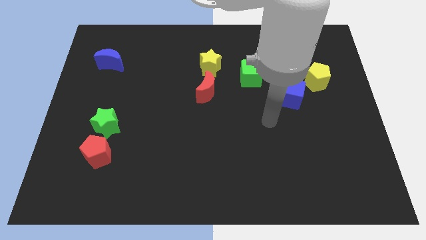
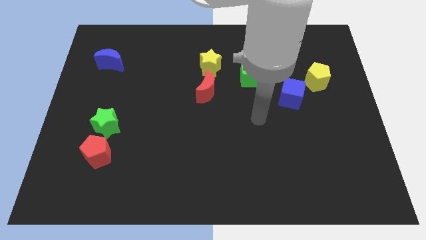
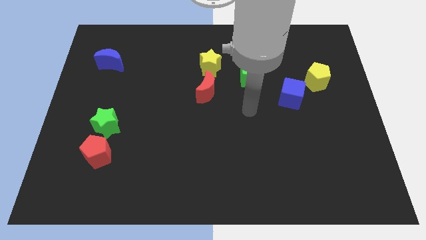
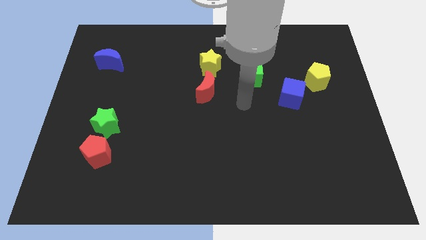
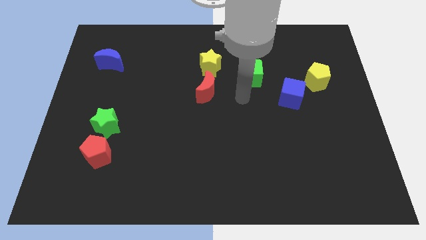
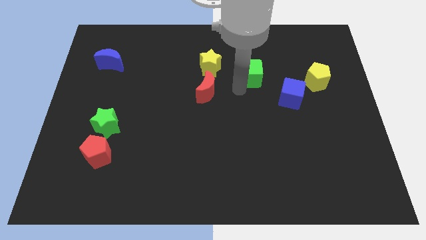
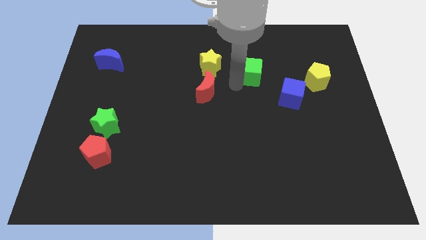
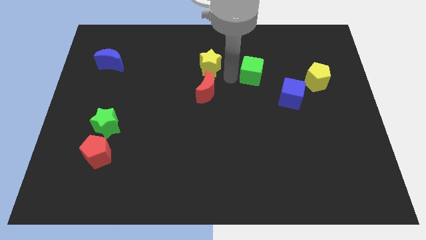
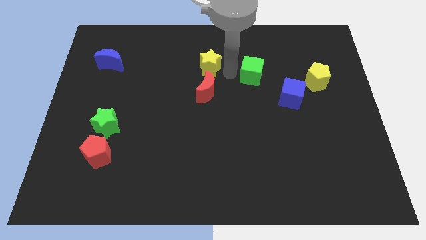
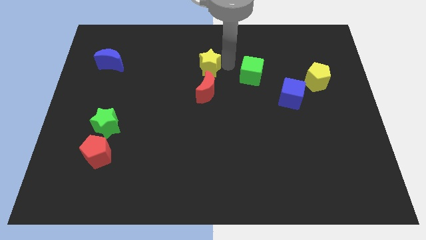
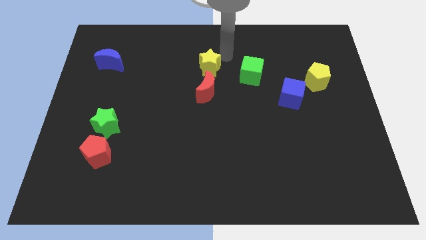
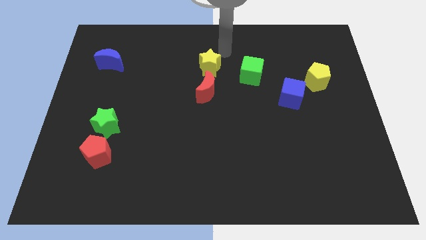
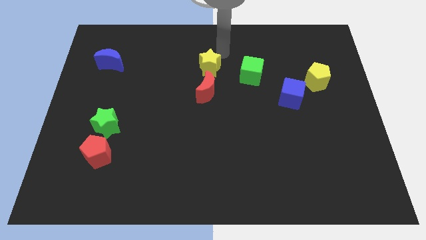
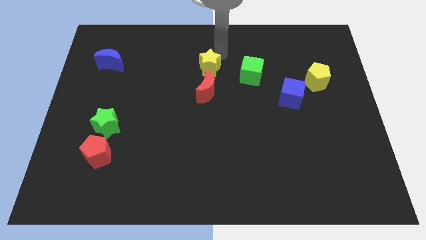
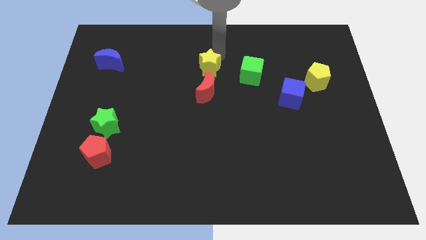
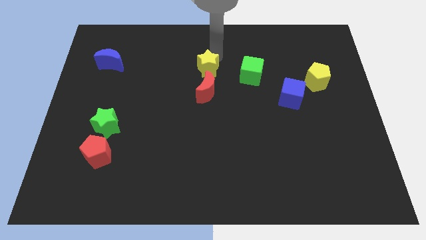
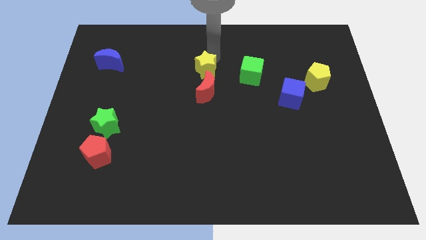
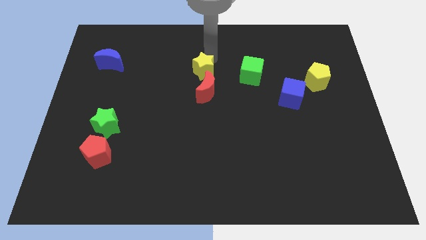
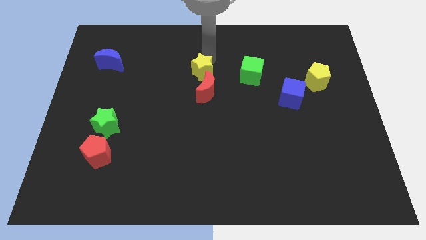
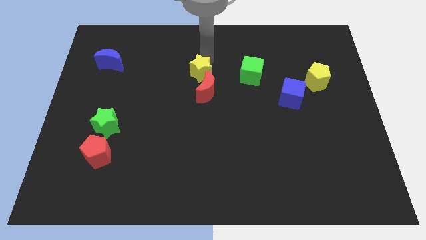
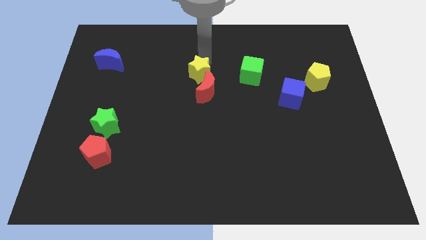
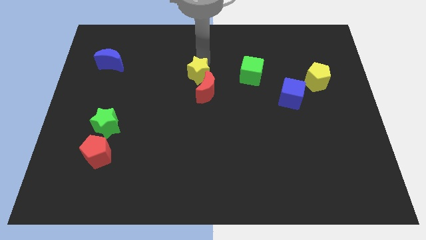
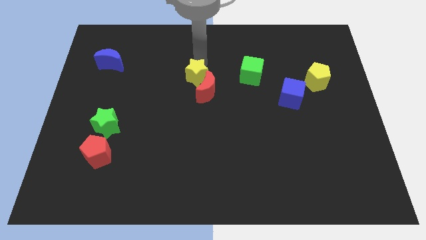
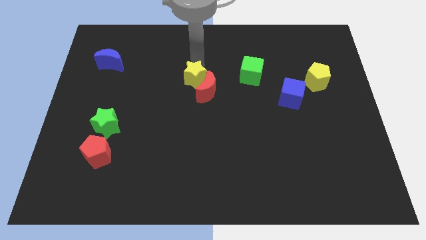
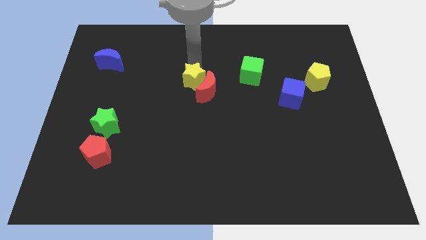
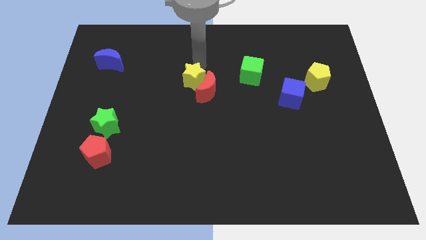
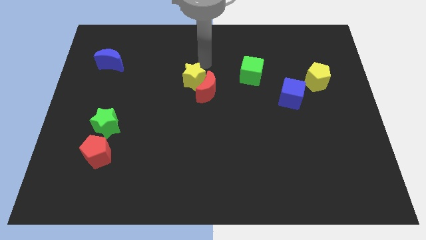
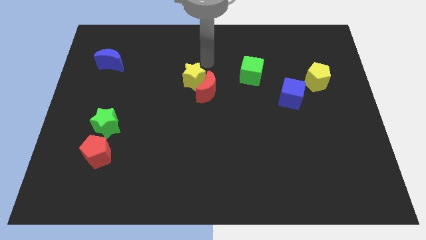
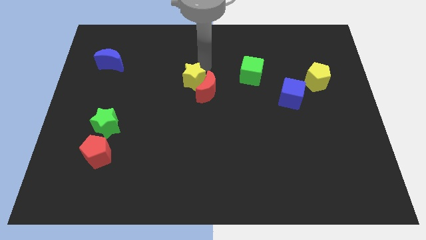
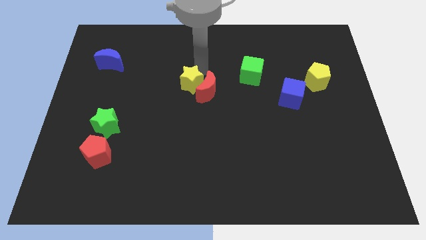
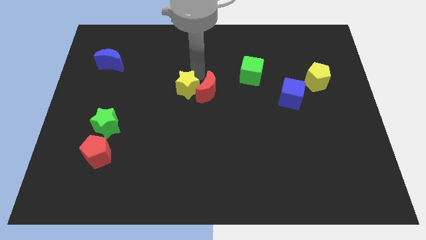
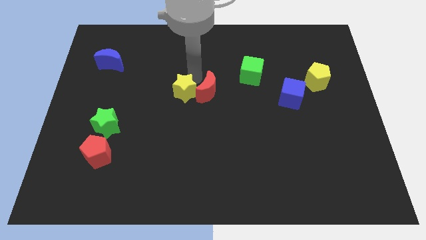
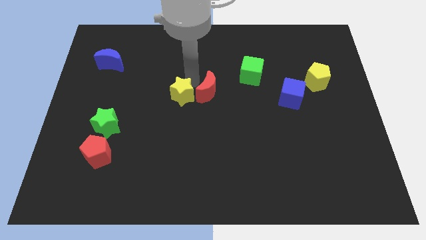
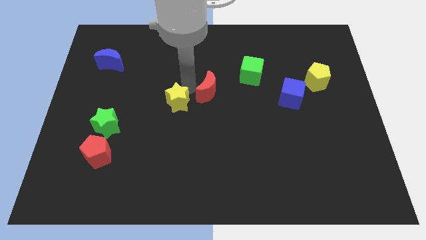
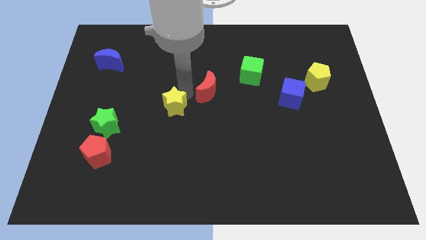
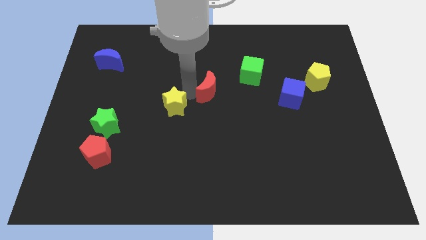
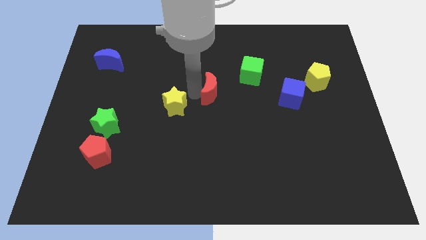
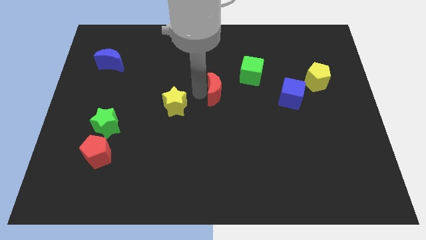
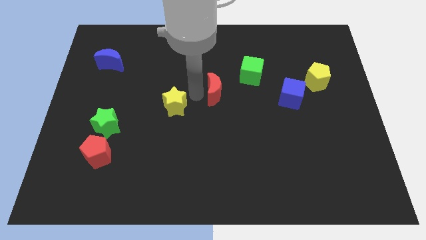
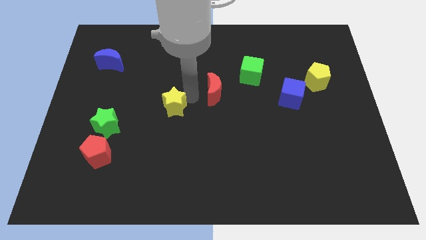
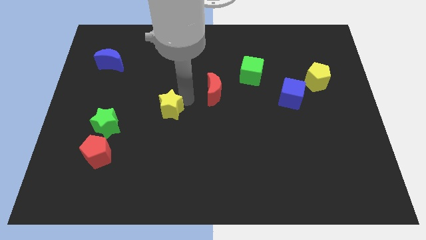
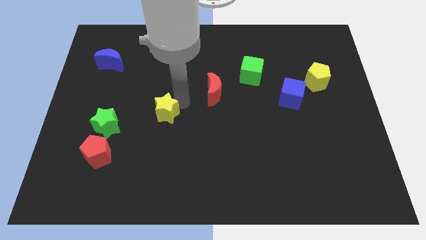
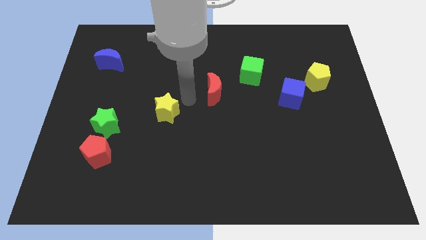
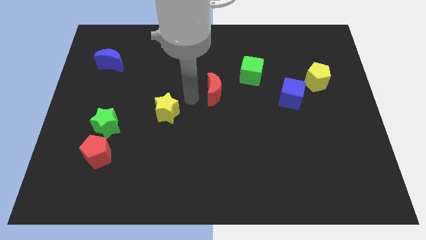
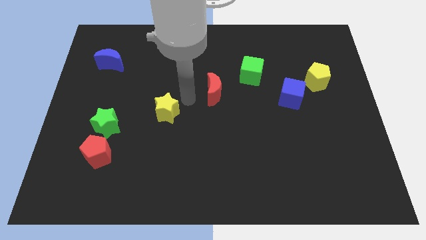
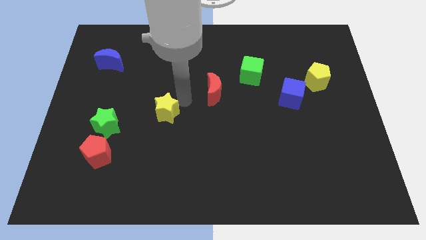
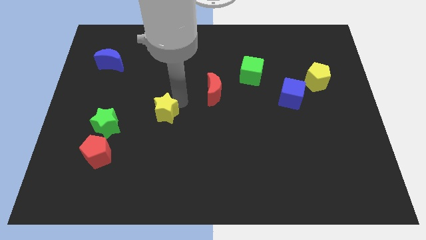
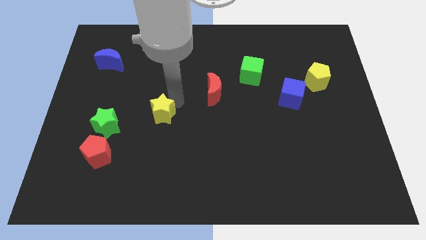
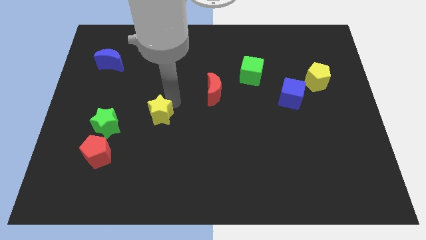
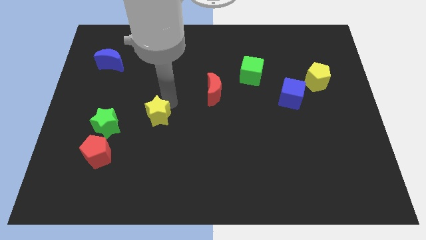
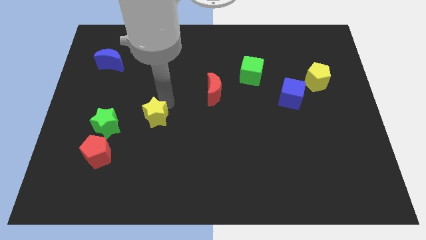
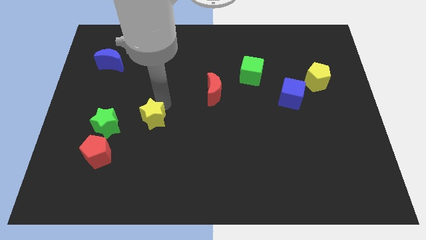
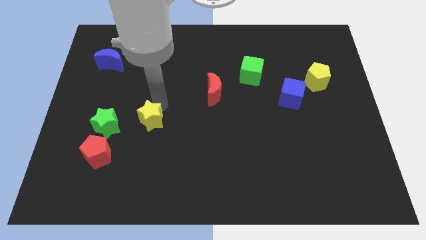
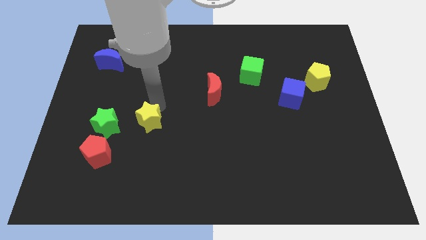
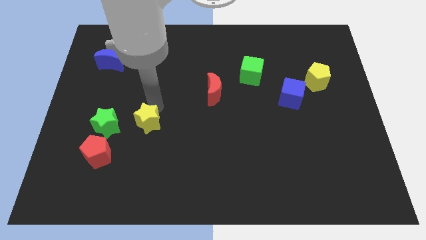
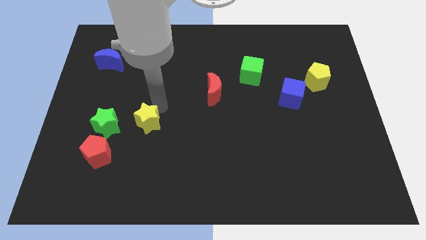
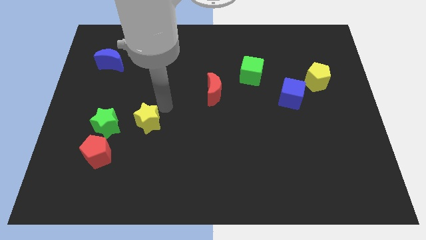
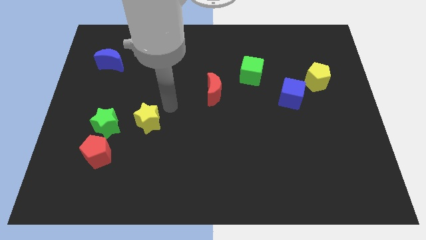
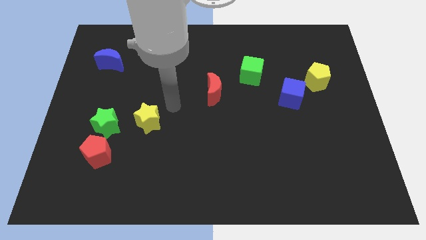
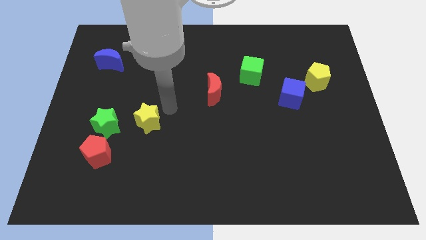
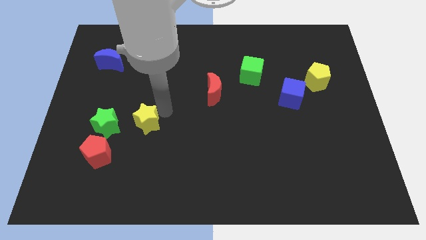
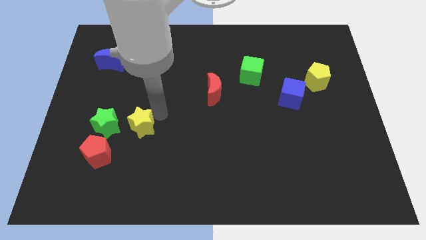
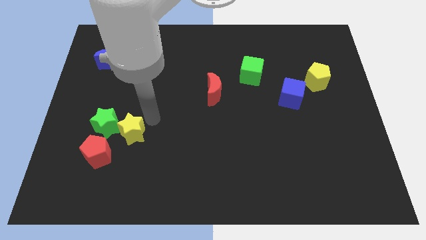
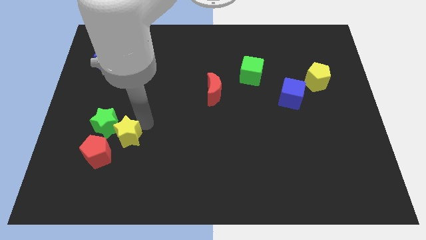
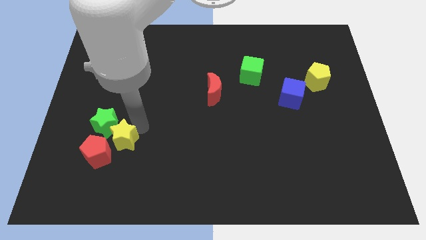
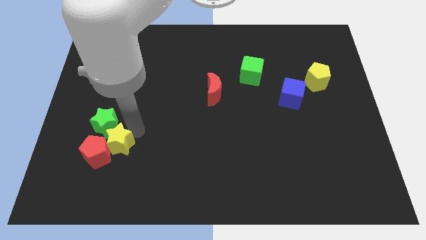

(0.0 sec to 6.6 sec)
move the yellow star next to the red pentagon

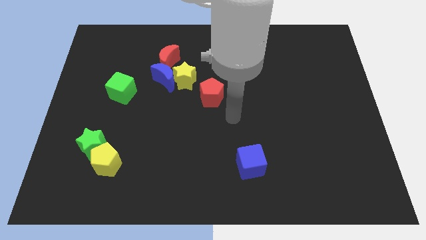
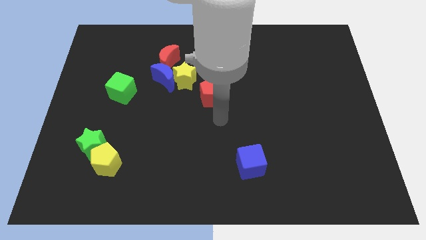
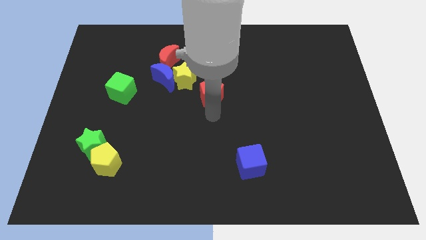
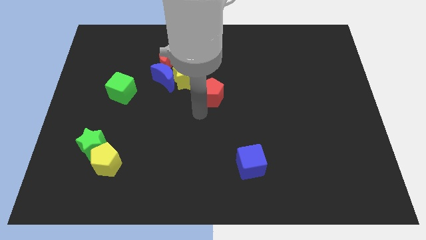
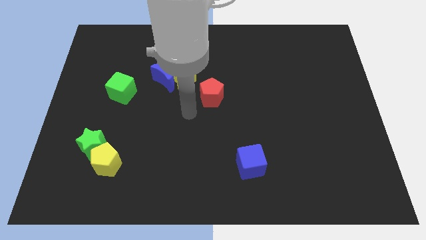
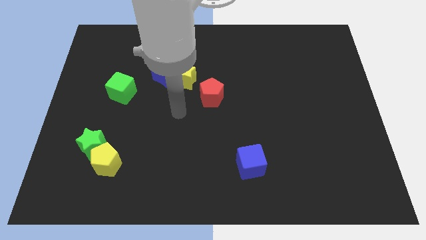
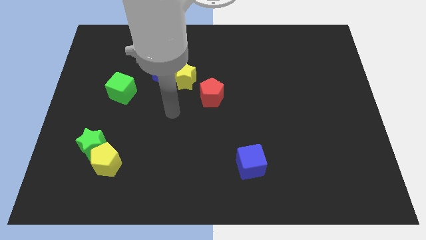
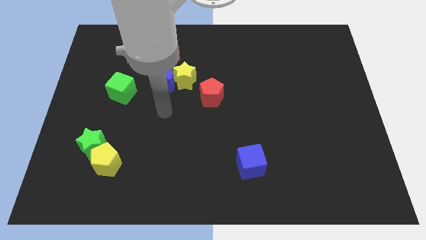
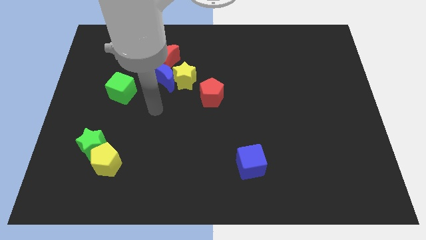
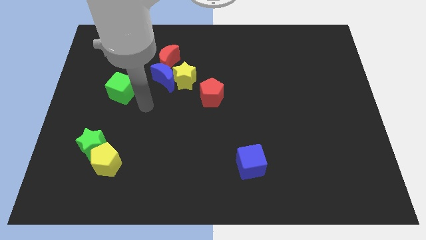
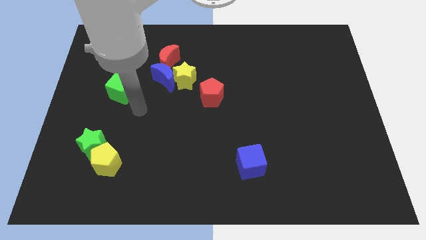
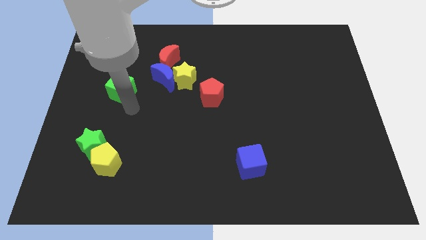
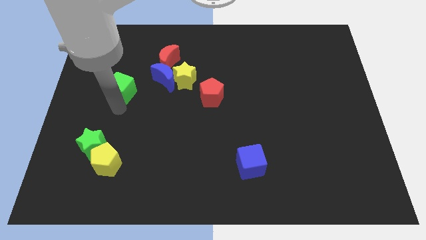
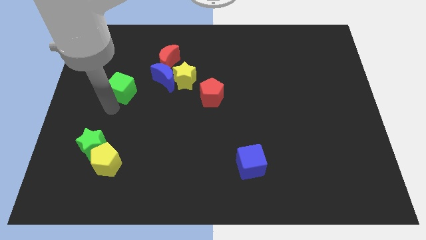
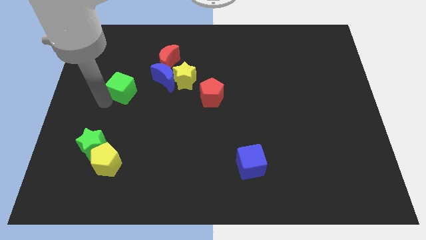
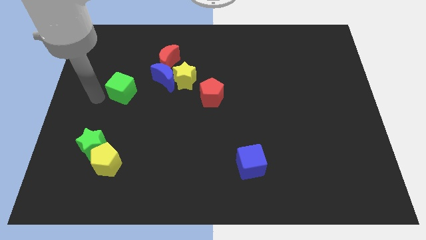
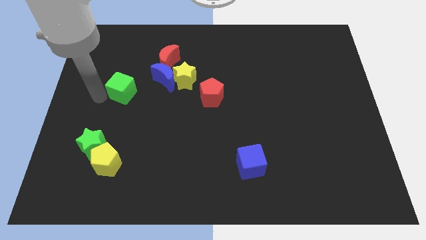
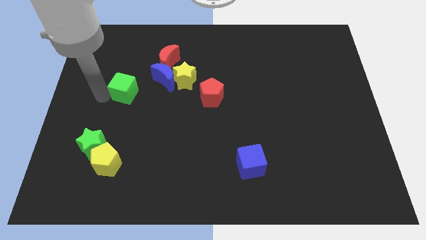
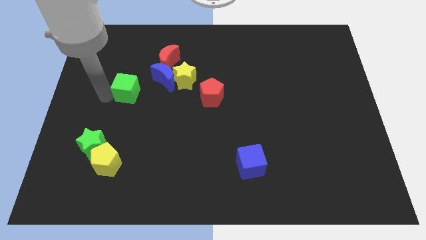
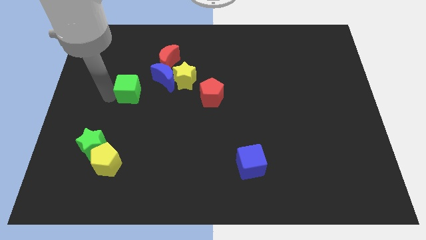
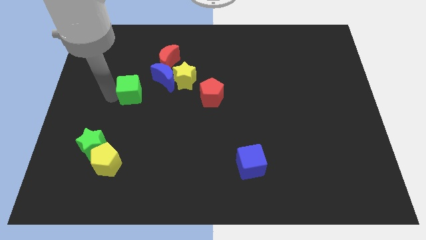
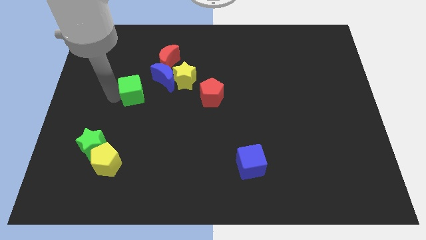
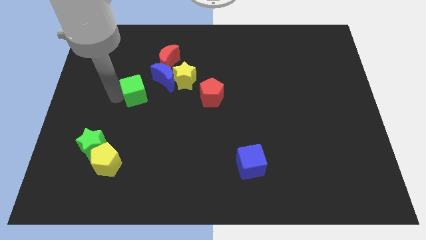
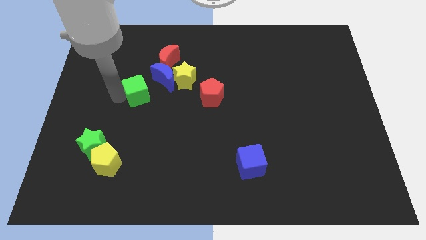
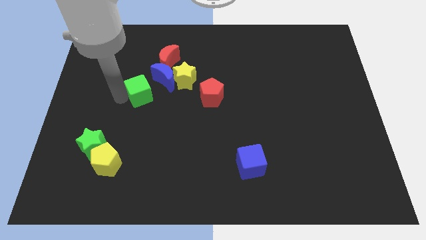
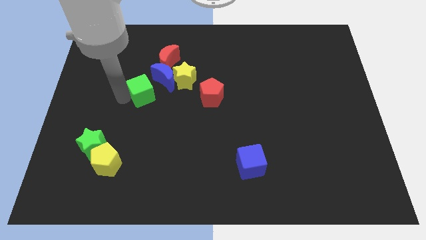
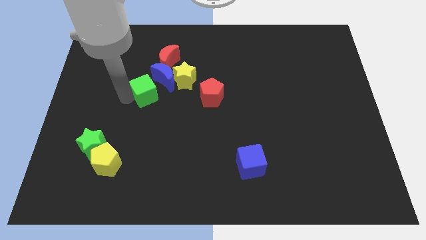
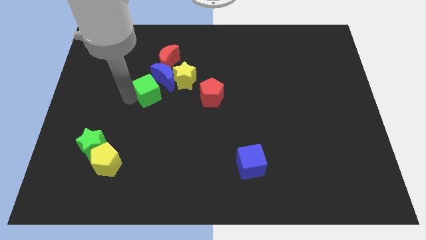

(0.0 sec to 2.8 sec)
put the green cube next to the blue moon
